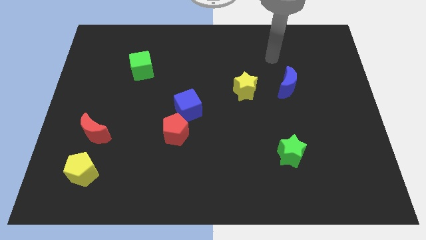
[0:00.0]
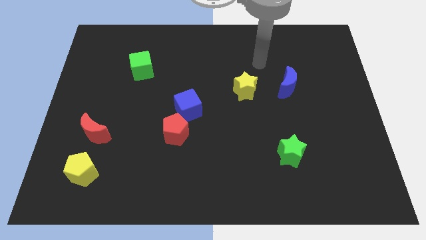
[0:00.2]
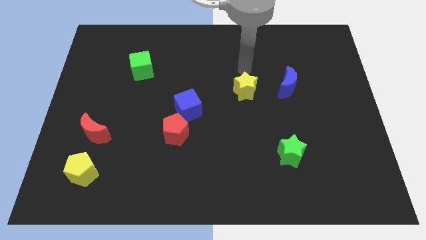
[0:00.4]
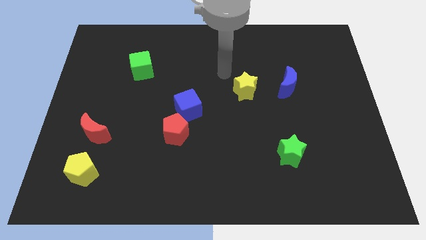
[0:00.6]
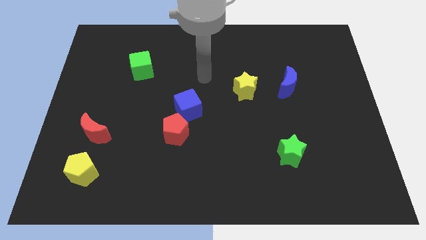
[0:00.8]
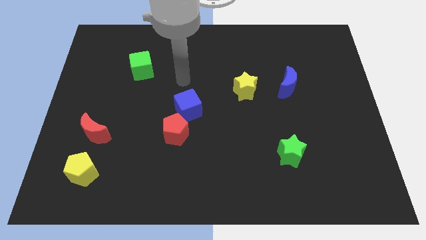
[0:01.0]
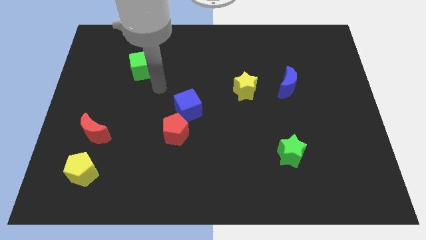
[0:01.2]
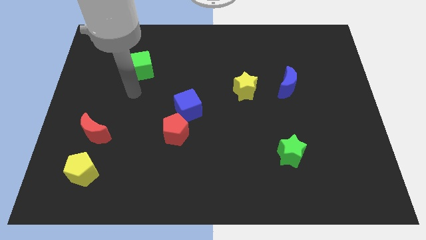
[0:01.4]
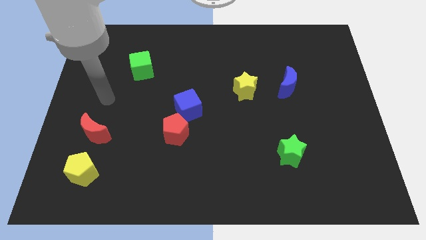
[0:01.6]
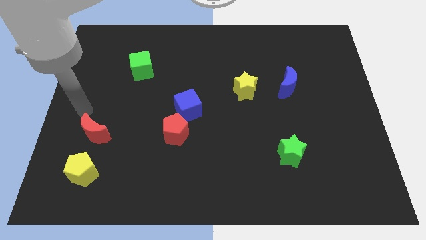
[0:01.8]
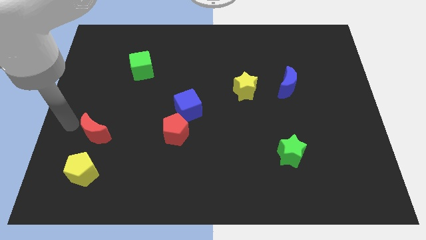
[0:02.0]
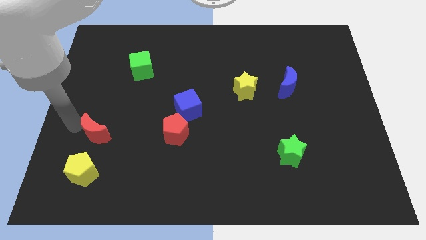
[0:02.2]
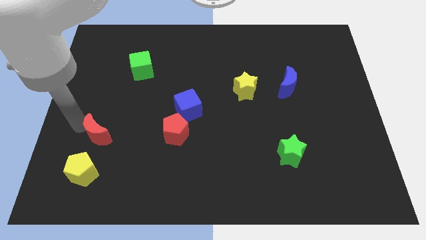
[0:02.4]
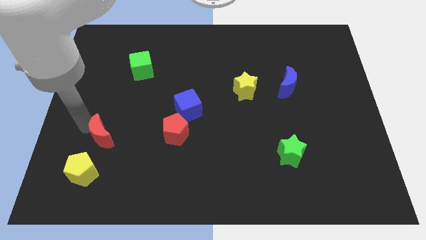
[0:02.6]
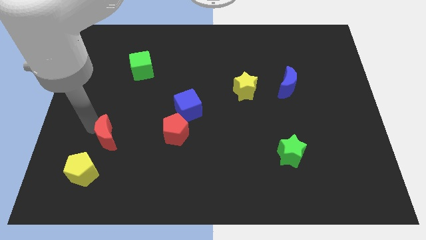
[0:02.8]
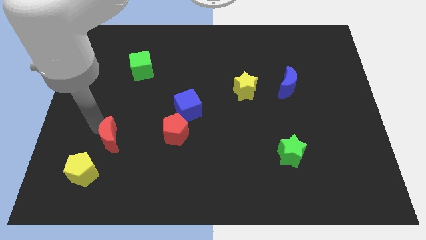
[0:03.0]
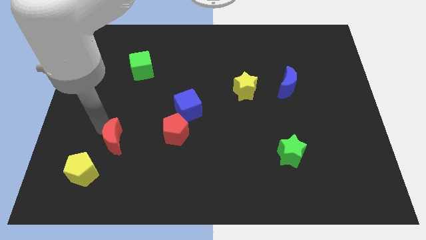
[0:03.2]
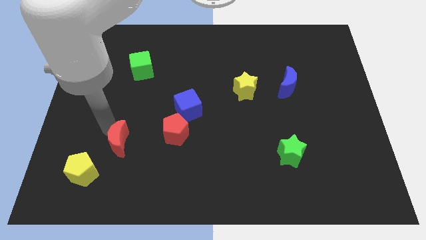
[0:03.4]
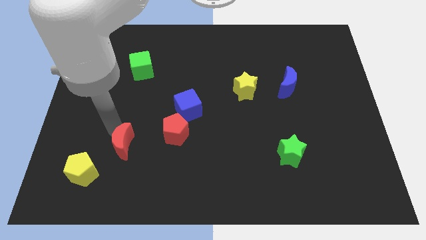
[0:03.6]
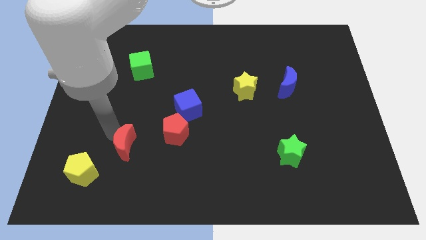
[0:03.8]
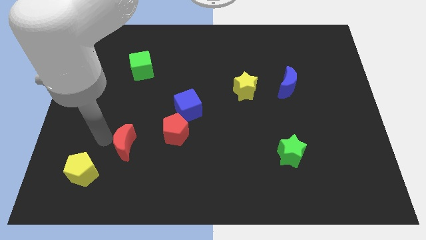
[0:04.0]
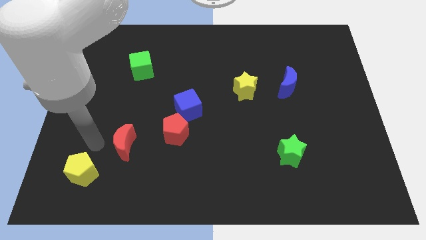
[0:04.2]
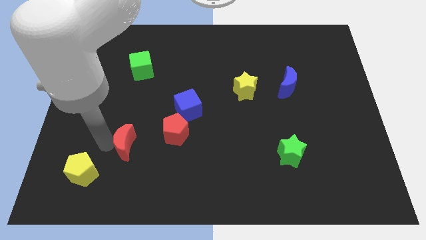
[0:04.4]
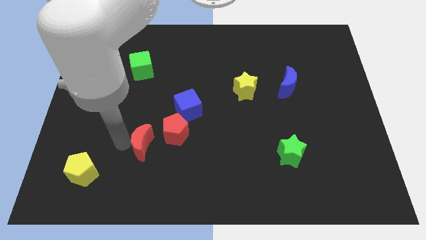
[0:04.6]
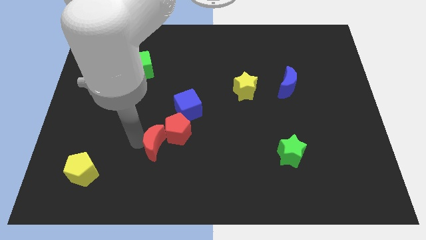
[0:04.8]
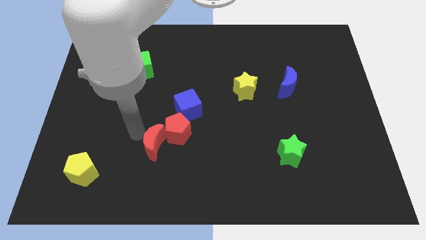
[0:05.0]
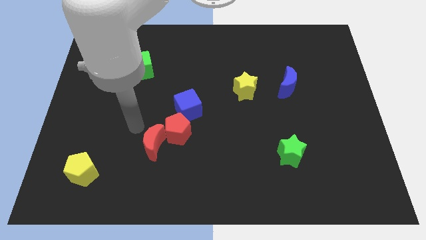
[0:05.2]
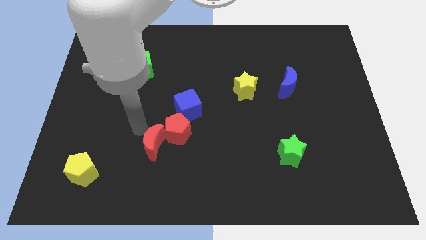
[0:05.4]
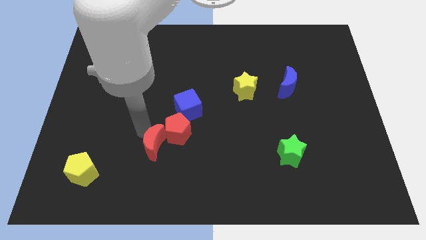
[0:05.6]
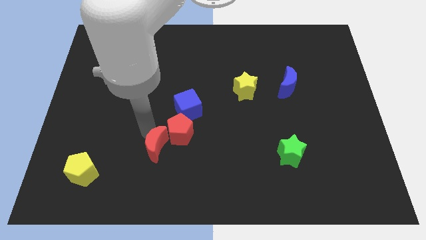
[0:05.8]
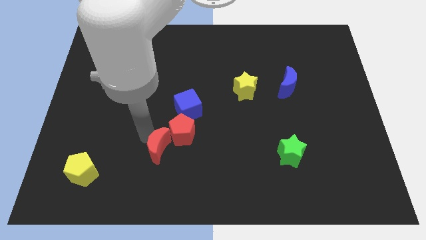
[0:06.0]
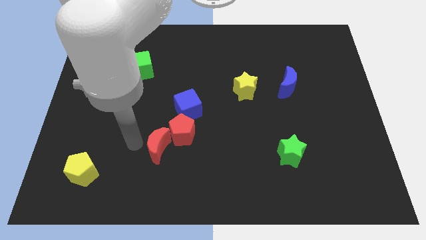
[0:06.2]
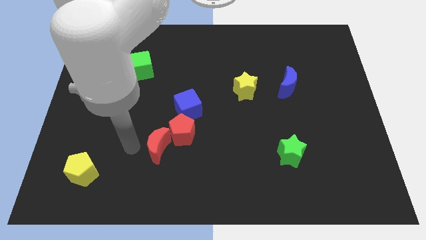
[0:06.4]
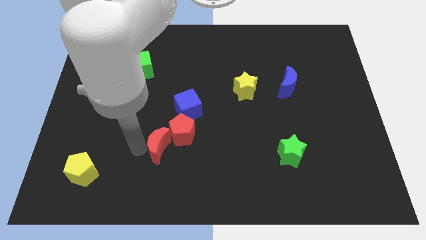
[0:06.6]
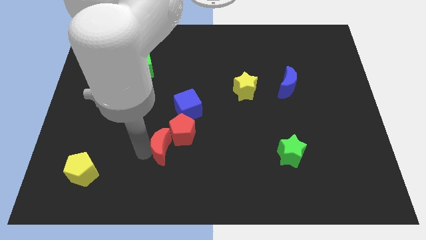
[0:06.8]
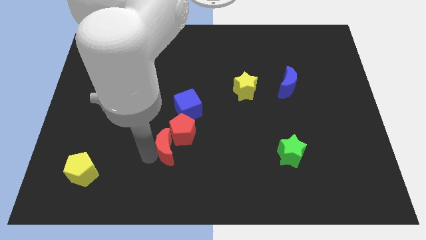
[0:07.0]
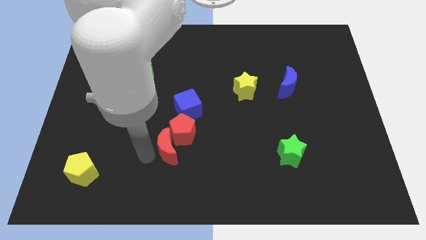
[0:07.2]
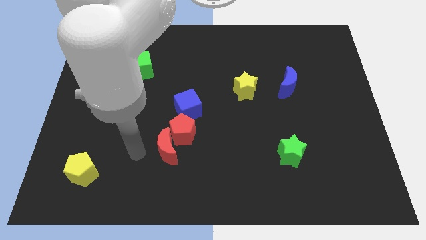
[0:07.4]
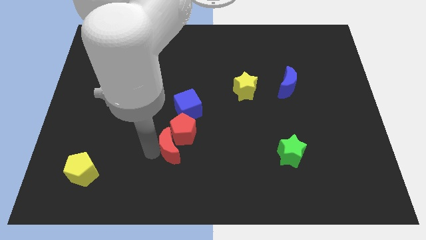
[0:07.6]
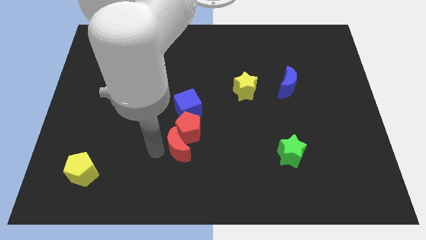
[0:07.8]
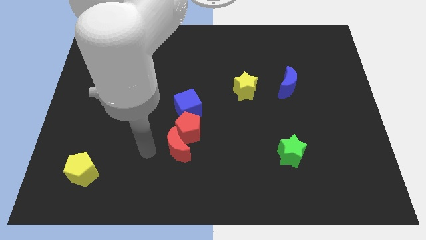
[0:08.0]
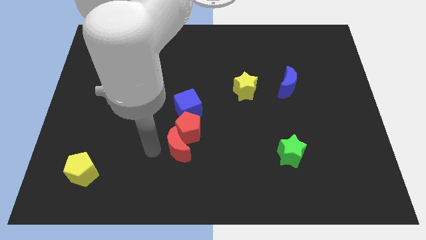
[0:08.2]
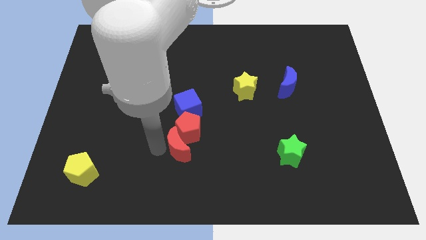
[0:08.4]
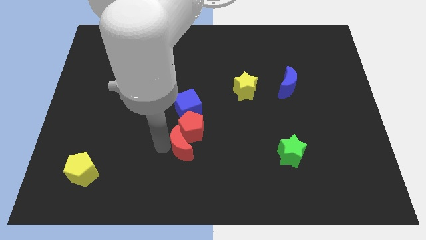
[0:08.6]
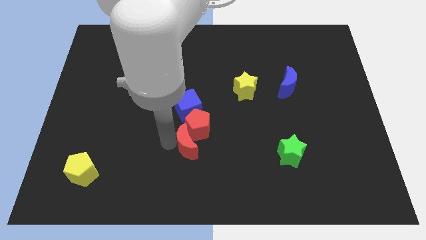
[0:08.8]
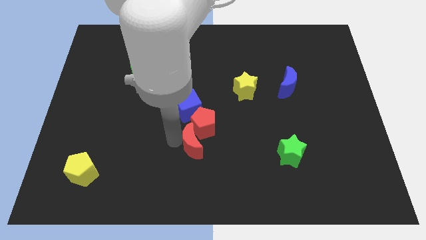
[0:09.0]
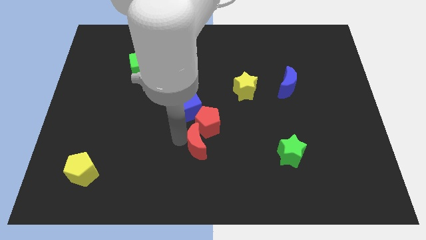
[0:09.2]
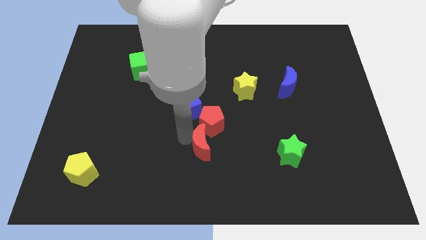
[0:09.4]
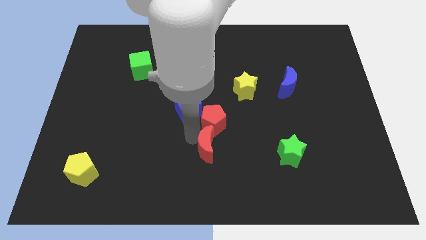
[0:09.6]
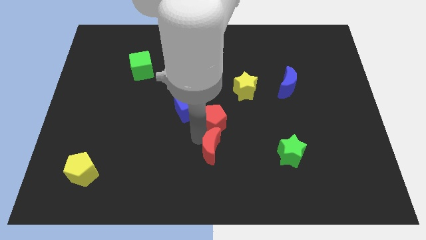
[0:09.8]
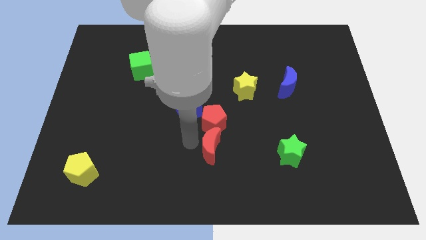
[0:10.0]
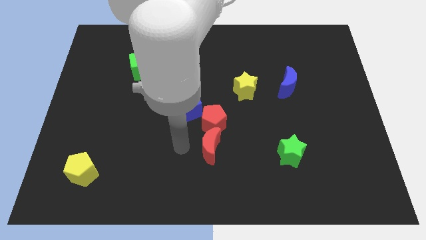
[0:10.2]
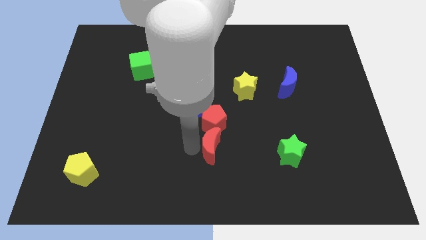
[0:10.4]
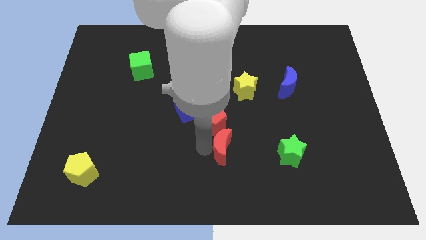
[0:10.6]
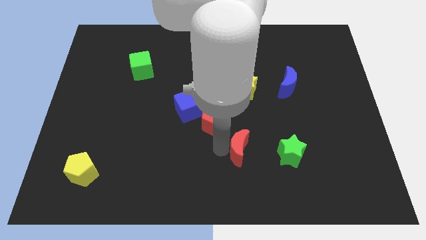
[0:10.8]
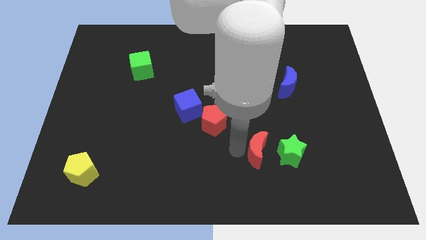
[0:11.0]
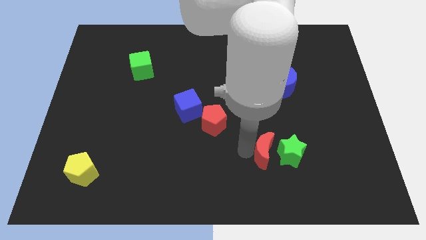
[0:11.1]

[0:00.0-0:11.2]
move the red moon to the green star

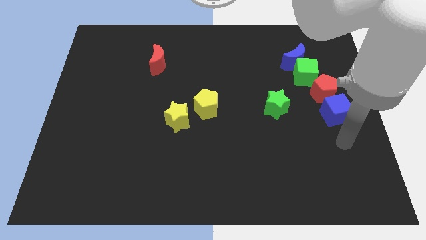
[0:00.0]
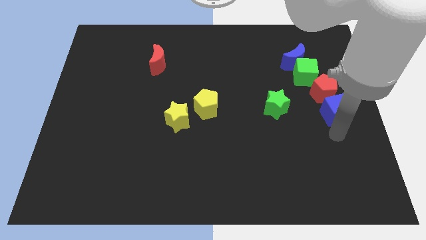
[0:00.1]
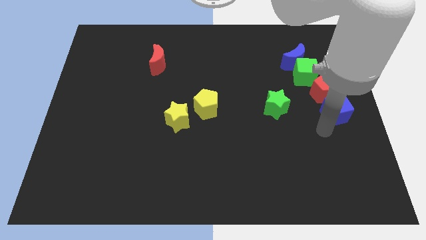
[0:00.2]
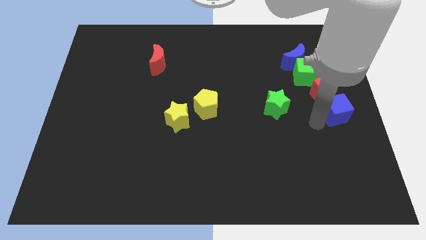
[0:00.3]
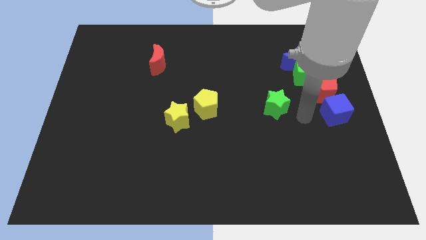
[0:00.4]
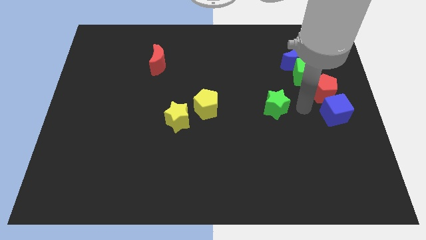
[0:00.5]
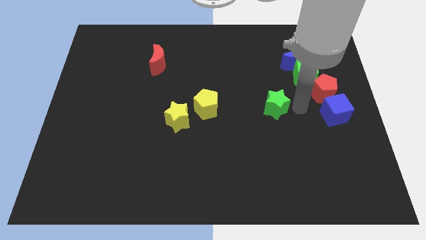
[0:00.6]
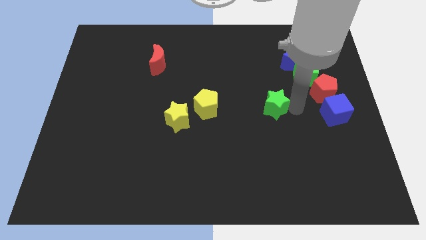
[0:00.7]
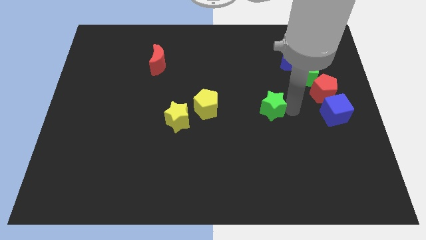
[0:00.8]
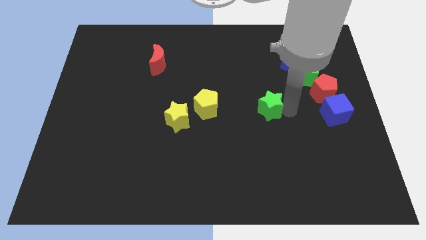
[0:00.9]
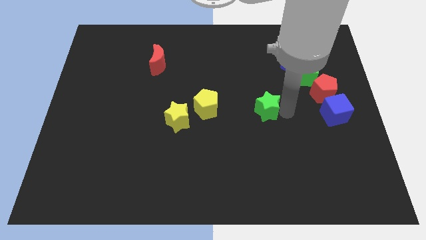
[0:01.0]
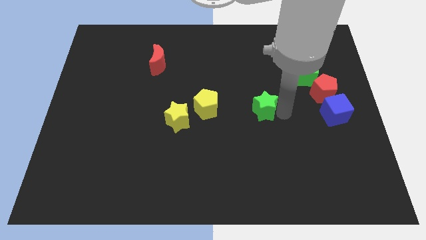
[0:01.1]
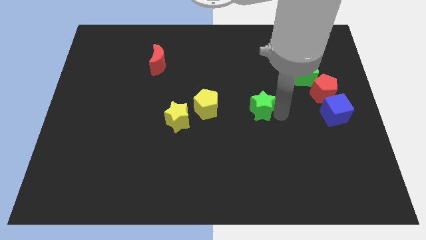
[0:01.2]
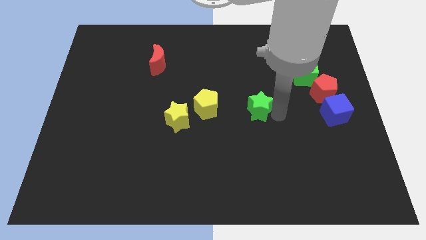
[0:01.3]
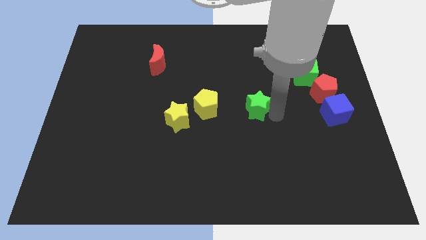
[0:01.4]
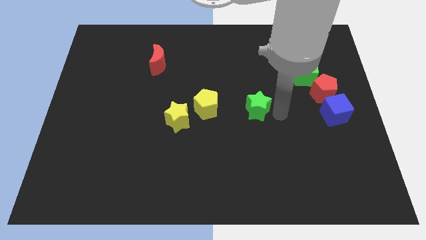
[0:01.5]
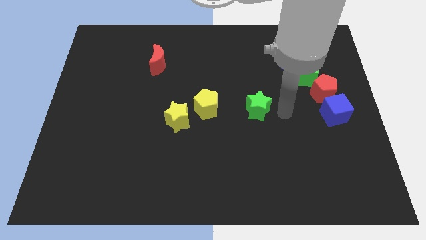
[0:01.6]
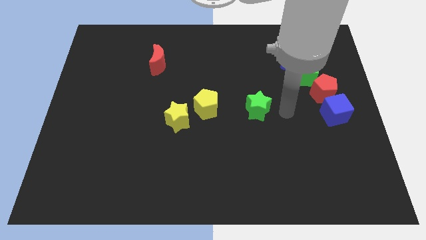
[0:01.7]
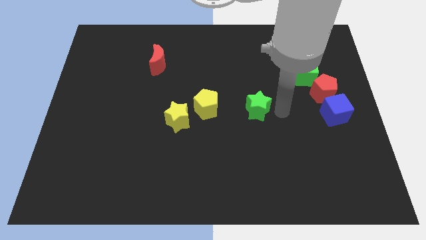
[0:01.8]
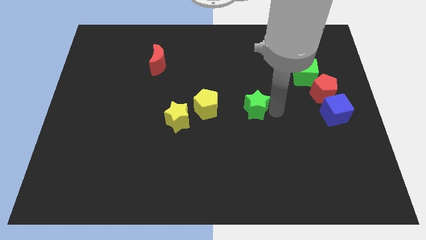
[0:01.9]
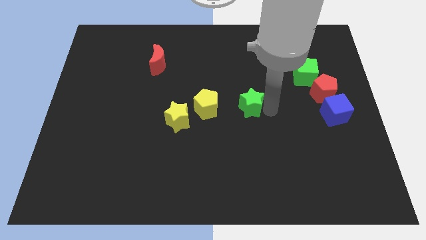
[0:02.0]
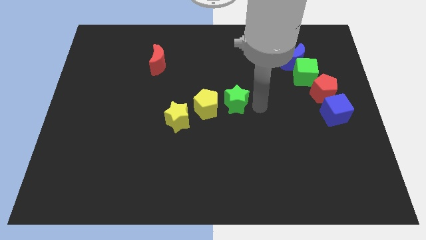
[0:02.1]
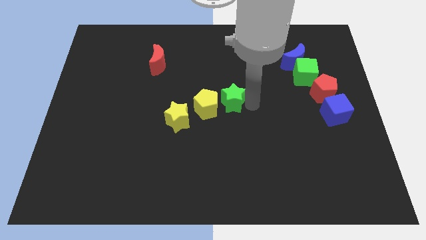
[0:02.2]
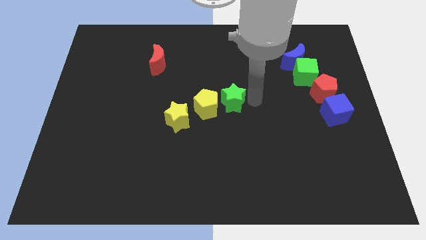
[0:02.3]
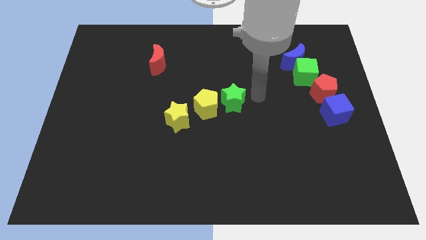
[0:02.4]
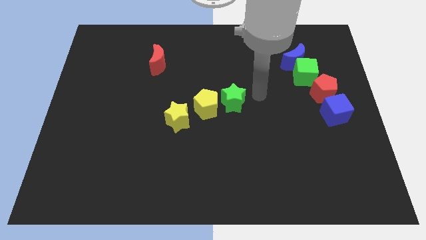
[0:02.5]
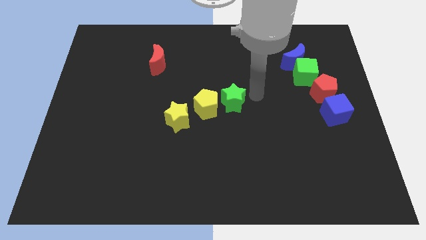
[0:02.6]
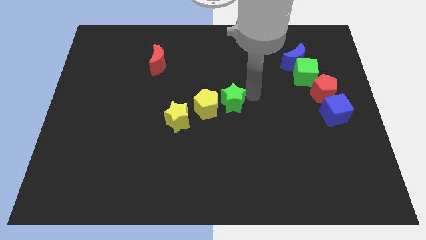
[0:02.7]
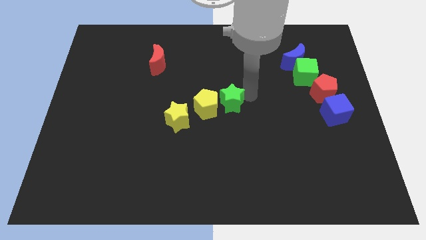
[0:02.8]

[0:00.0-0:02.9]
put the green star towards the yellow pentagon
